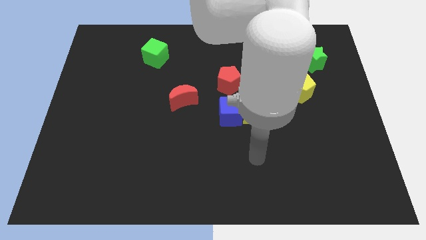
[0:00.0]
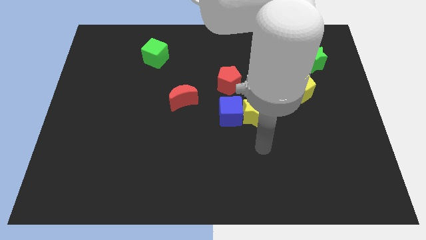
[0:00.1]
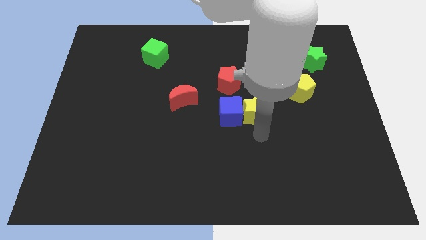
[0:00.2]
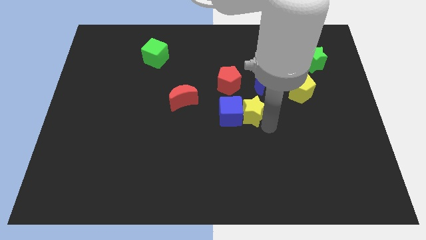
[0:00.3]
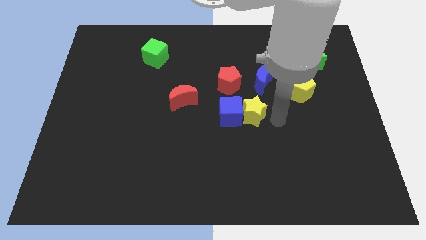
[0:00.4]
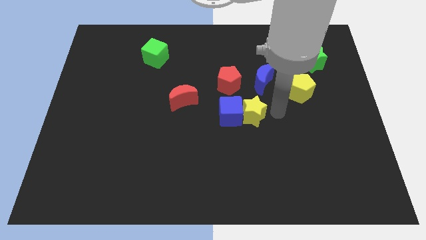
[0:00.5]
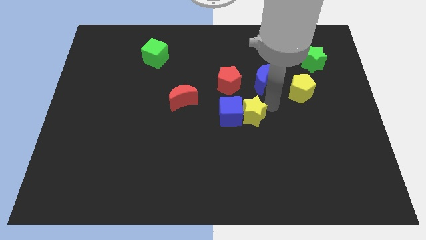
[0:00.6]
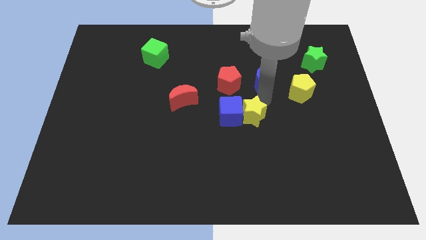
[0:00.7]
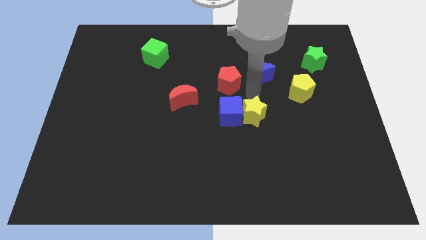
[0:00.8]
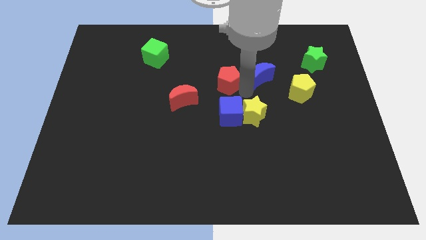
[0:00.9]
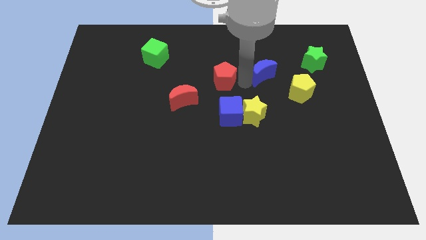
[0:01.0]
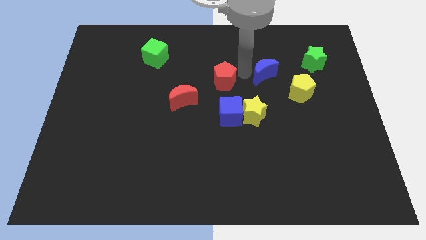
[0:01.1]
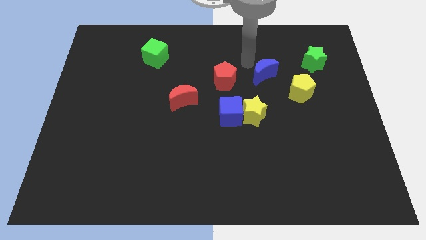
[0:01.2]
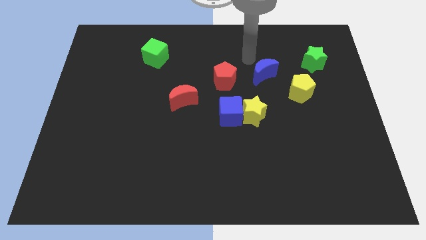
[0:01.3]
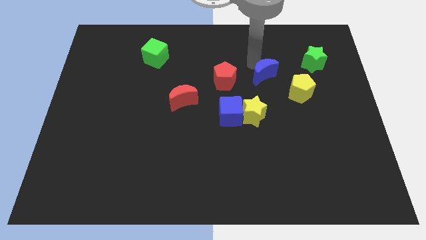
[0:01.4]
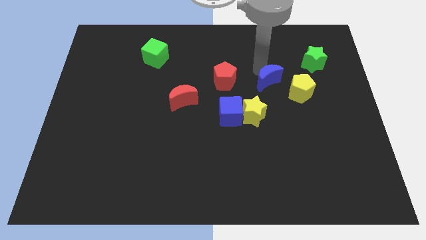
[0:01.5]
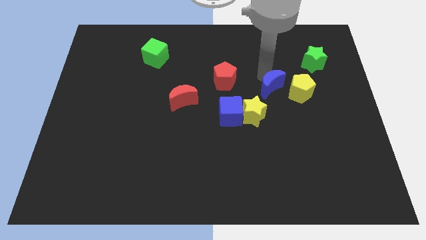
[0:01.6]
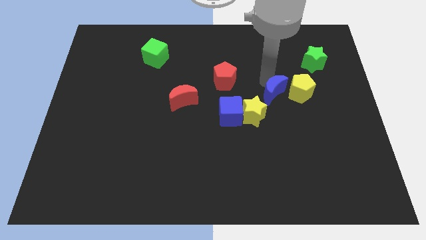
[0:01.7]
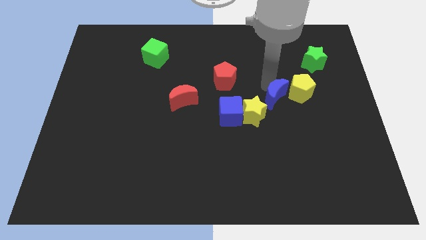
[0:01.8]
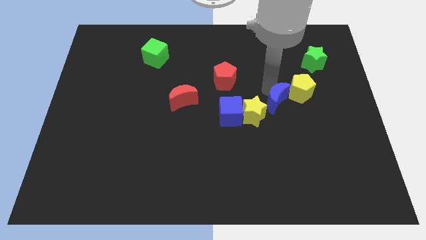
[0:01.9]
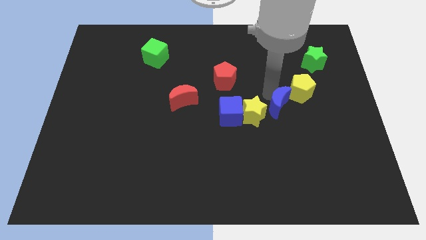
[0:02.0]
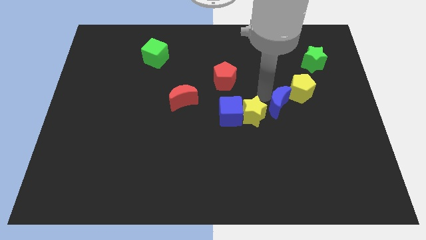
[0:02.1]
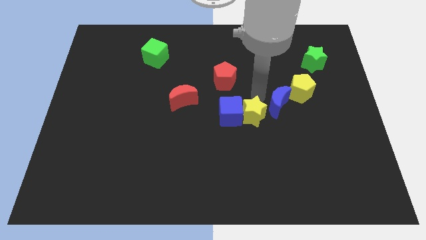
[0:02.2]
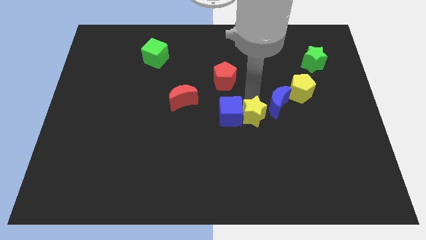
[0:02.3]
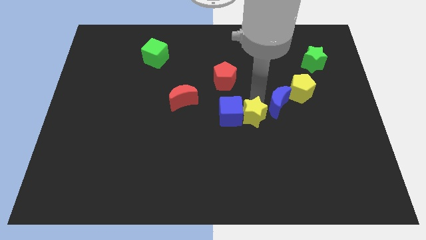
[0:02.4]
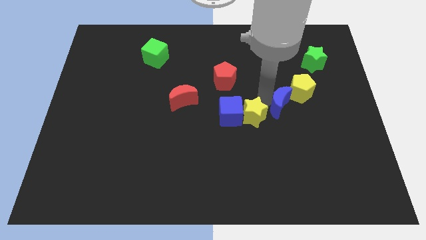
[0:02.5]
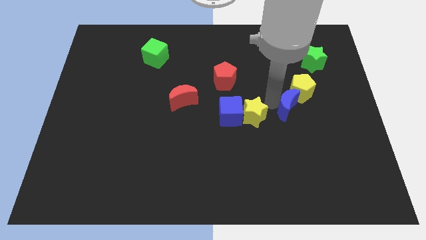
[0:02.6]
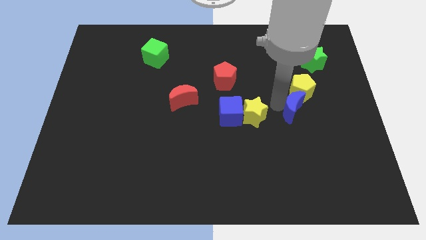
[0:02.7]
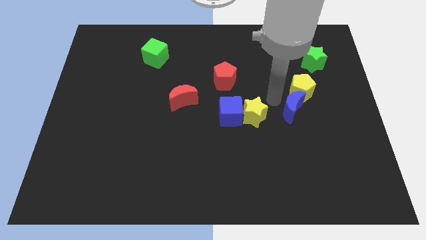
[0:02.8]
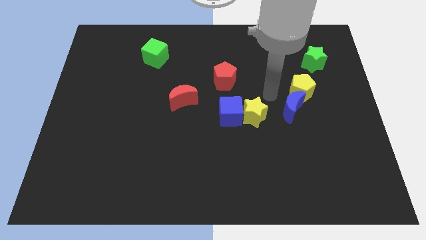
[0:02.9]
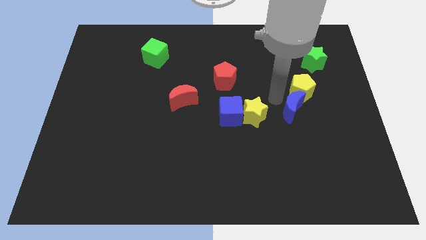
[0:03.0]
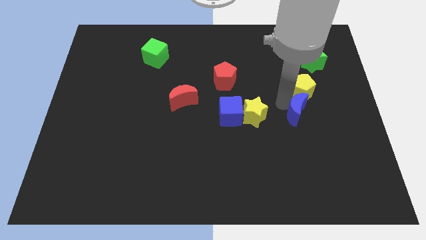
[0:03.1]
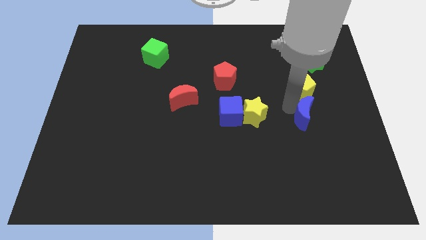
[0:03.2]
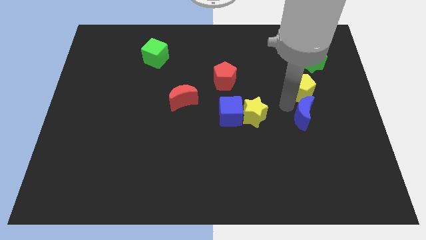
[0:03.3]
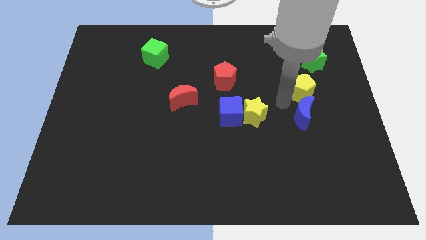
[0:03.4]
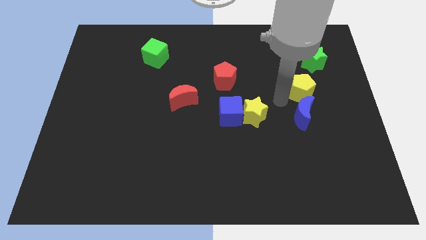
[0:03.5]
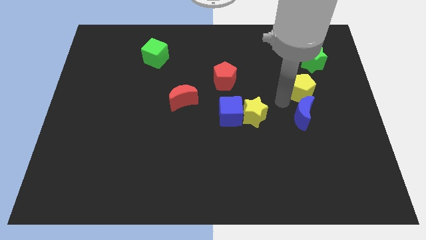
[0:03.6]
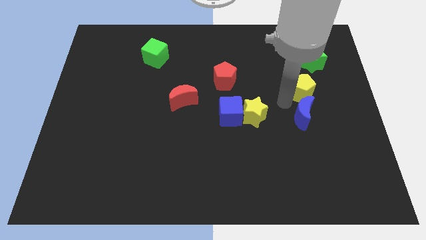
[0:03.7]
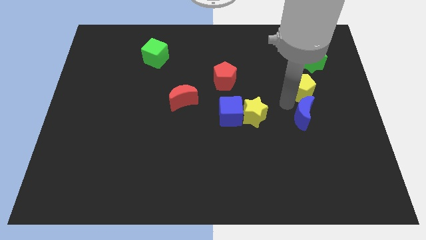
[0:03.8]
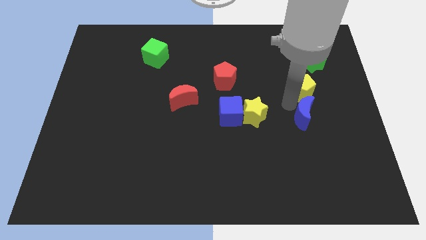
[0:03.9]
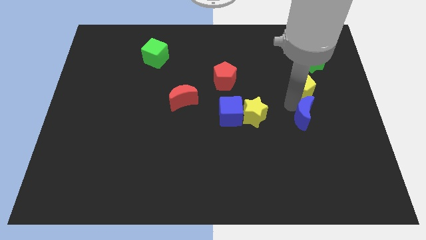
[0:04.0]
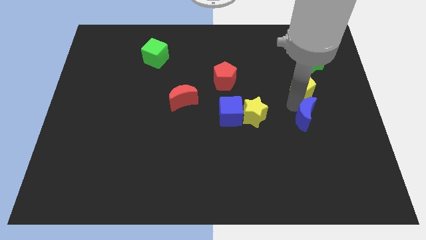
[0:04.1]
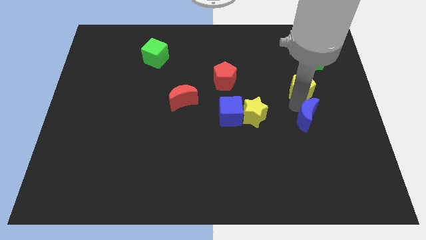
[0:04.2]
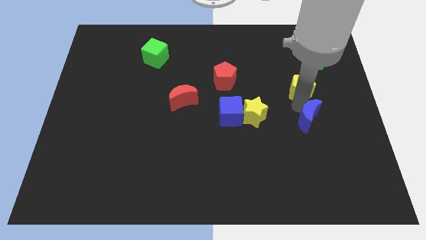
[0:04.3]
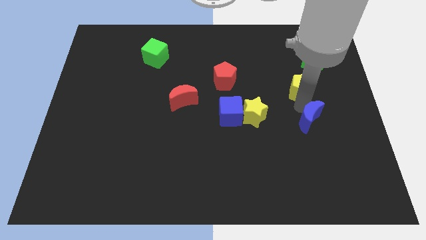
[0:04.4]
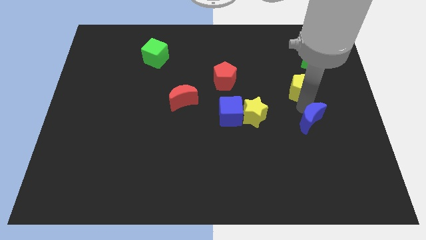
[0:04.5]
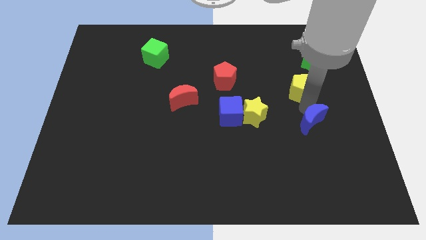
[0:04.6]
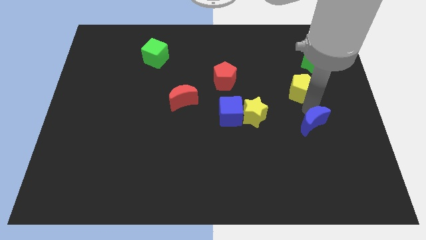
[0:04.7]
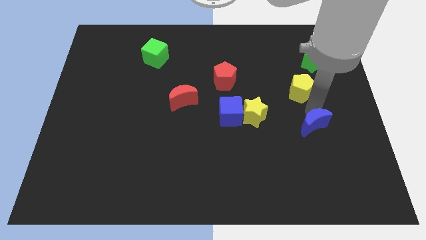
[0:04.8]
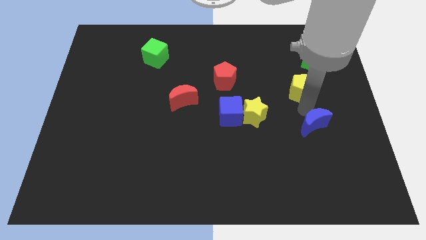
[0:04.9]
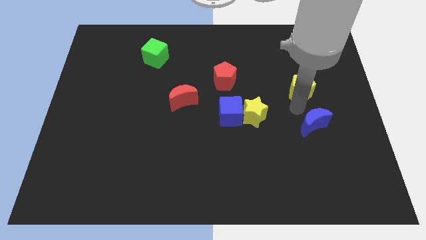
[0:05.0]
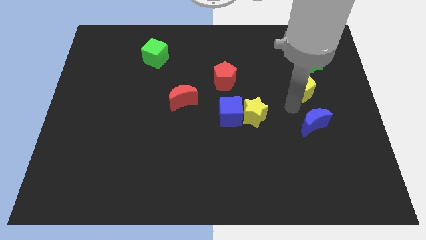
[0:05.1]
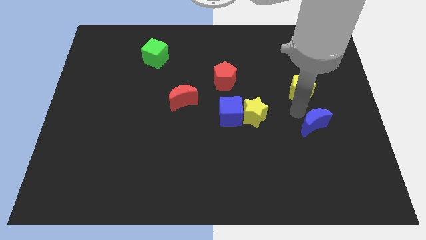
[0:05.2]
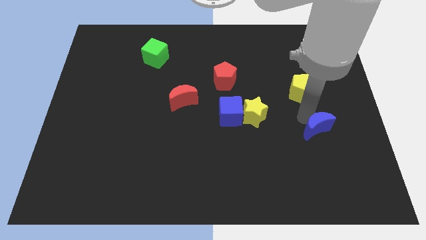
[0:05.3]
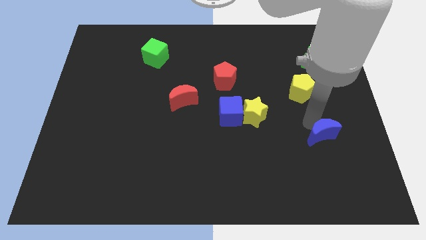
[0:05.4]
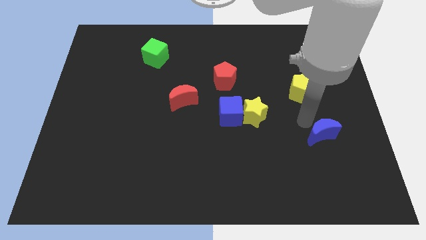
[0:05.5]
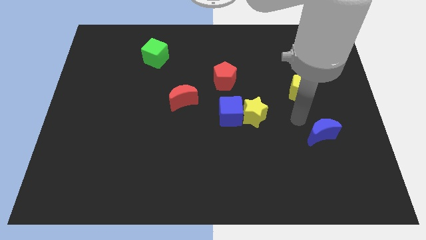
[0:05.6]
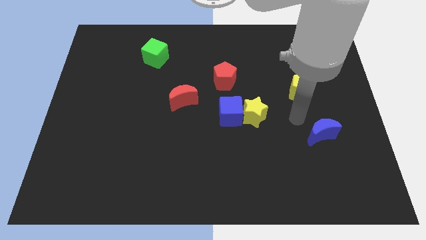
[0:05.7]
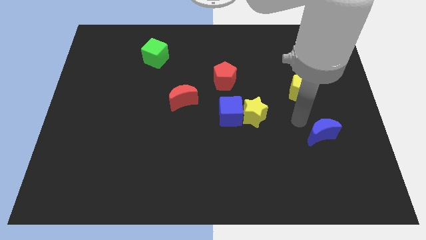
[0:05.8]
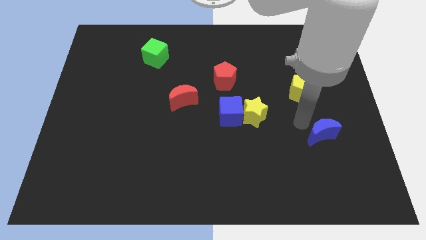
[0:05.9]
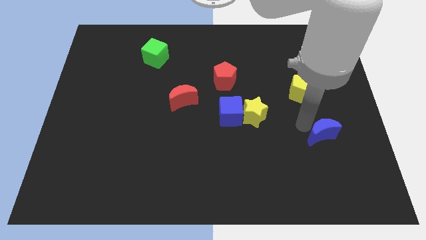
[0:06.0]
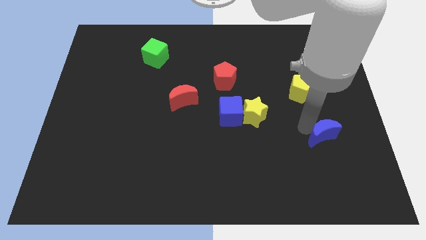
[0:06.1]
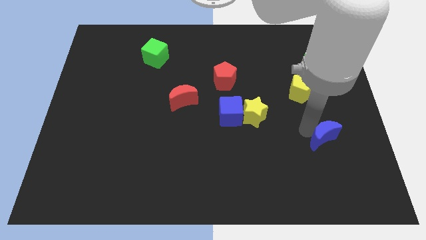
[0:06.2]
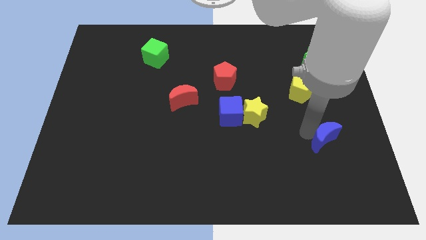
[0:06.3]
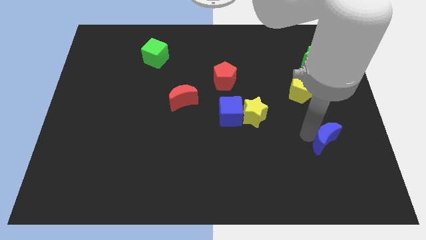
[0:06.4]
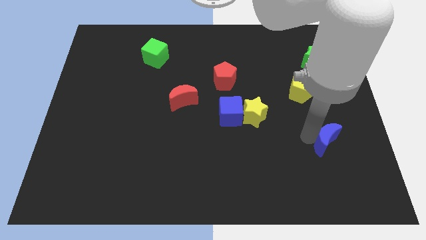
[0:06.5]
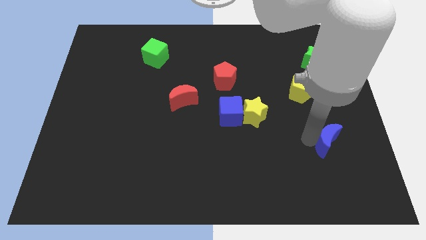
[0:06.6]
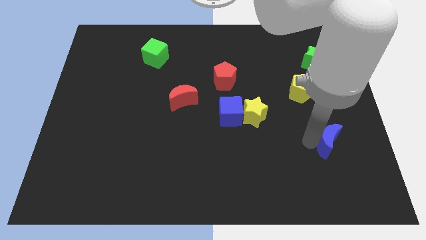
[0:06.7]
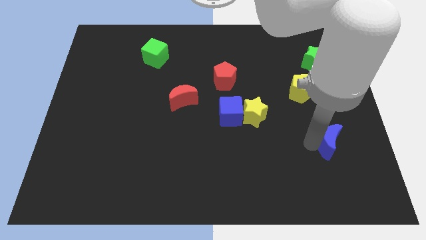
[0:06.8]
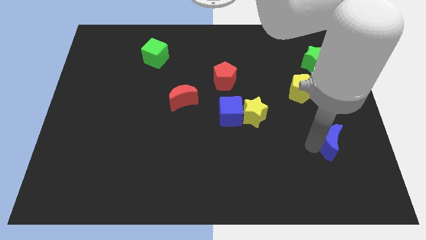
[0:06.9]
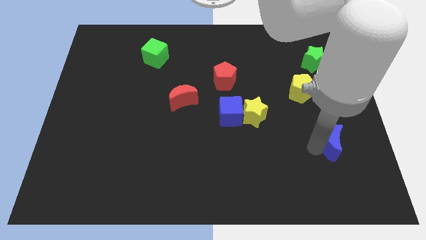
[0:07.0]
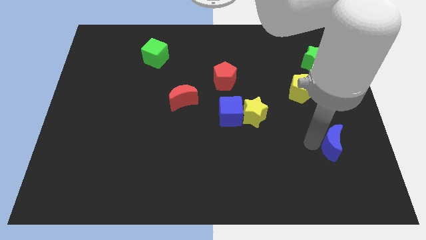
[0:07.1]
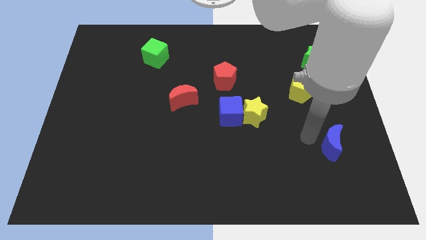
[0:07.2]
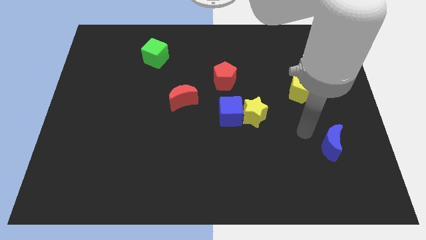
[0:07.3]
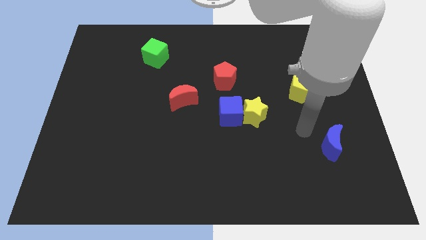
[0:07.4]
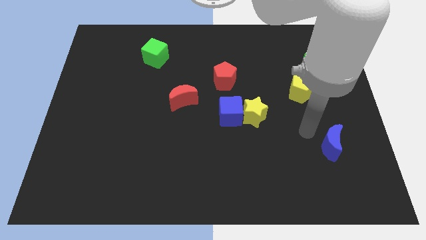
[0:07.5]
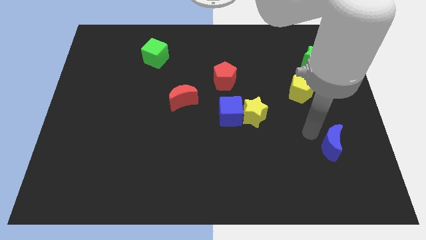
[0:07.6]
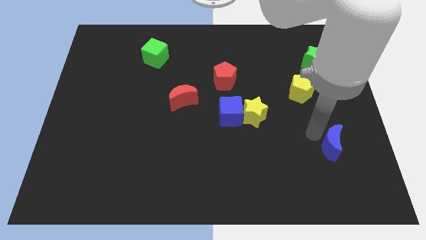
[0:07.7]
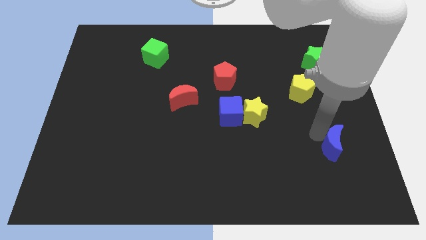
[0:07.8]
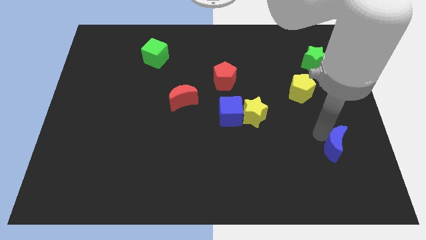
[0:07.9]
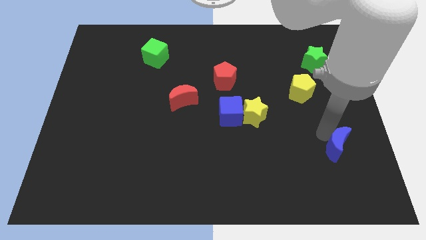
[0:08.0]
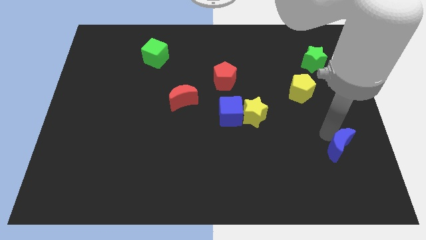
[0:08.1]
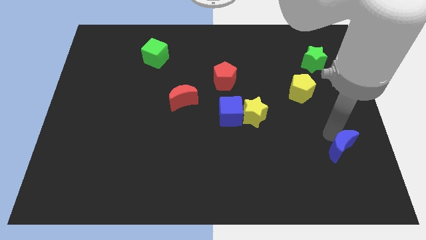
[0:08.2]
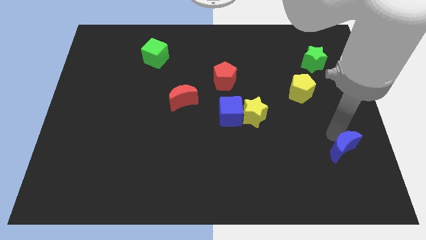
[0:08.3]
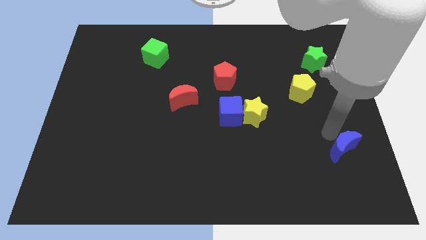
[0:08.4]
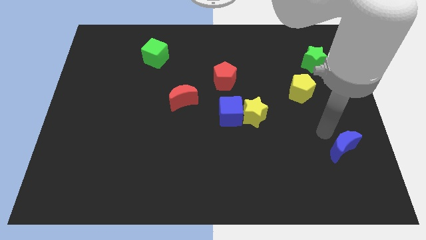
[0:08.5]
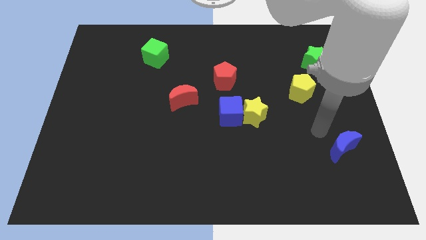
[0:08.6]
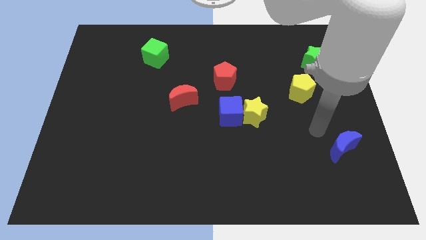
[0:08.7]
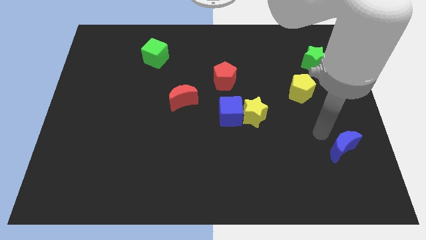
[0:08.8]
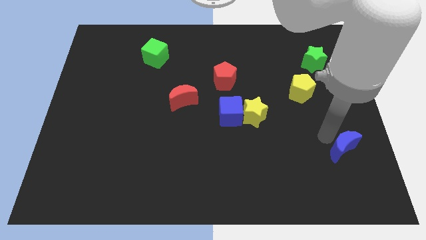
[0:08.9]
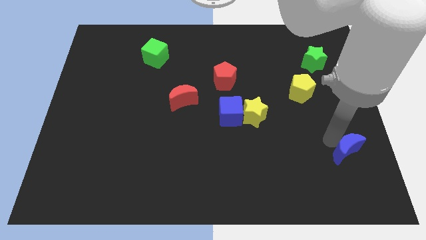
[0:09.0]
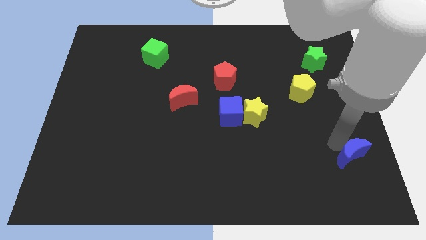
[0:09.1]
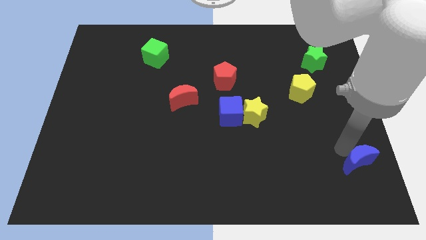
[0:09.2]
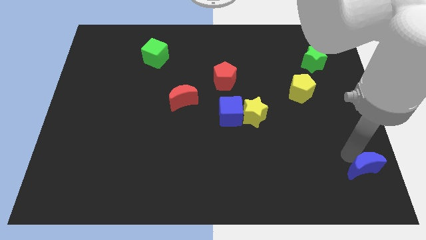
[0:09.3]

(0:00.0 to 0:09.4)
push the blue moon to the bottom right
